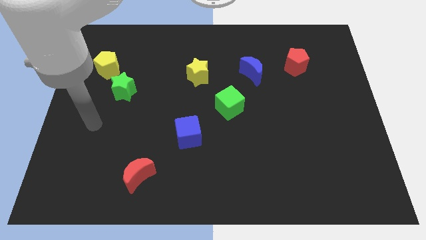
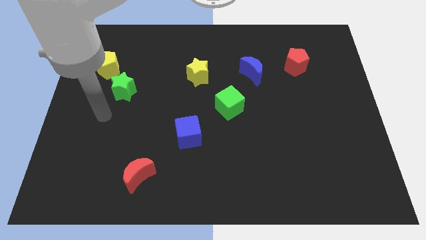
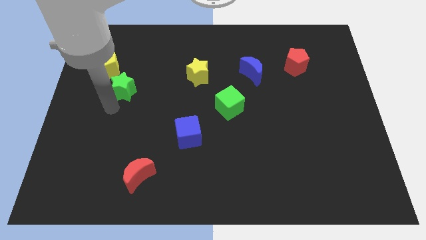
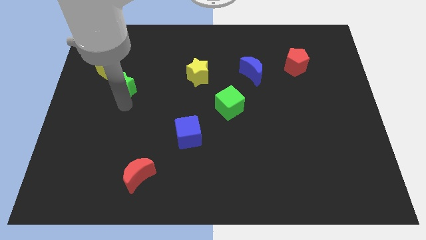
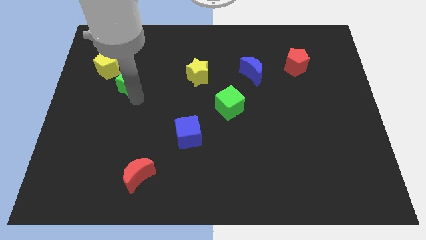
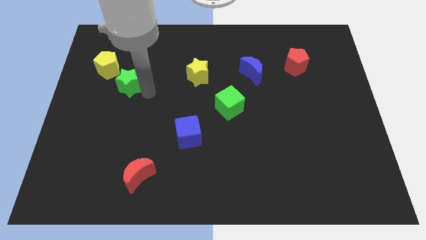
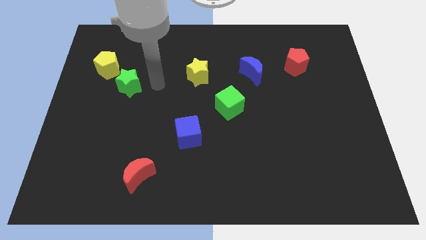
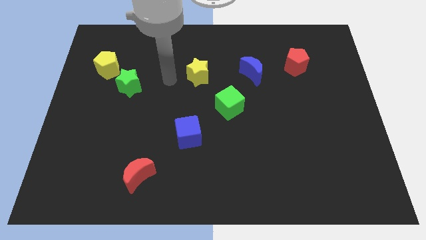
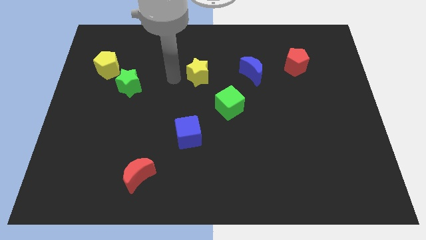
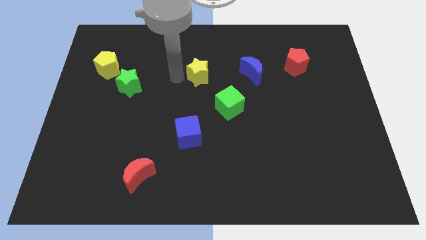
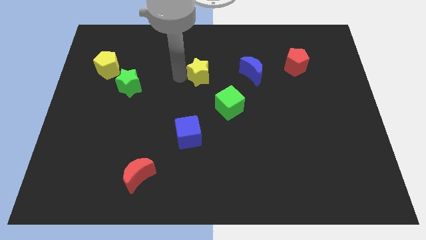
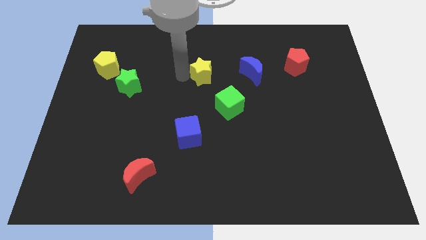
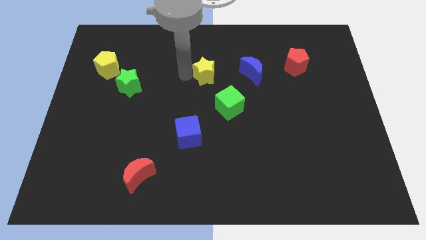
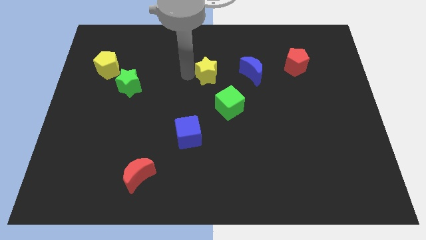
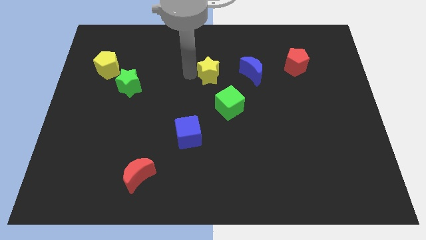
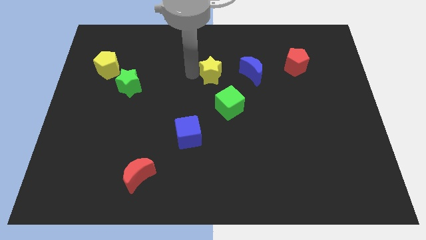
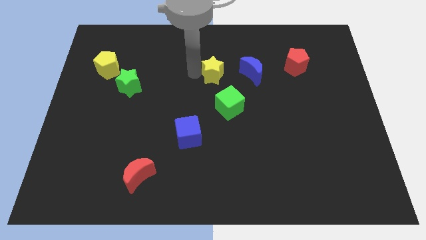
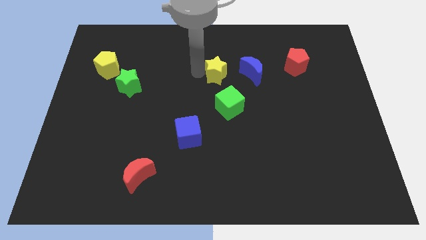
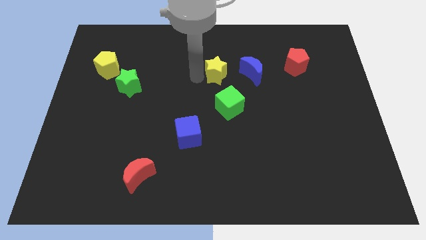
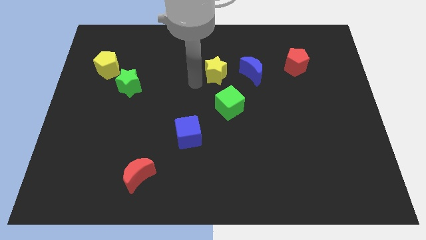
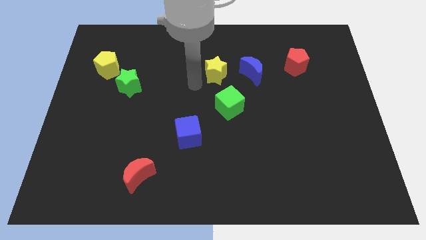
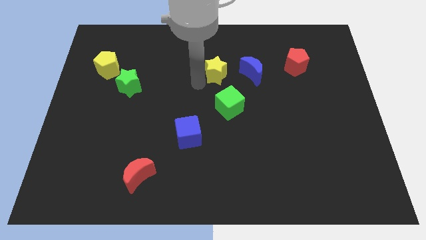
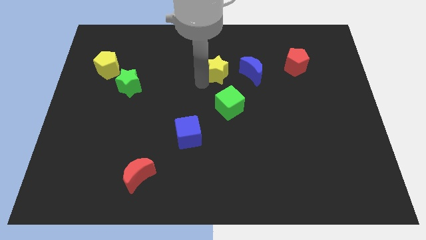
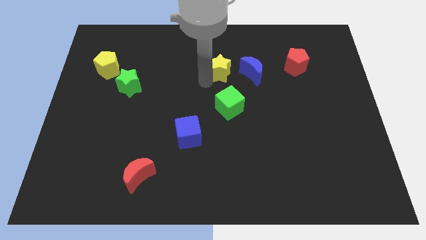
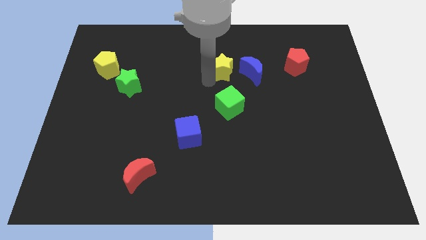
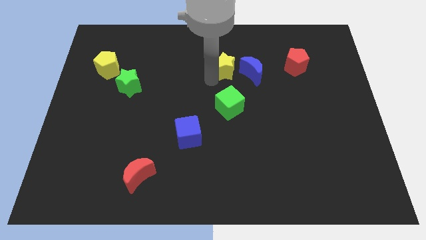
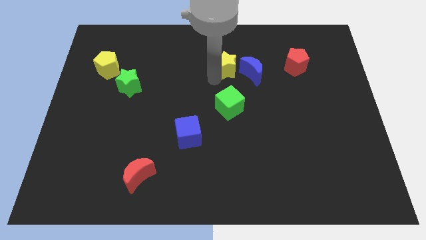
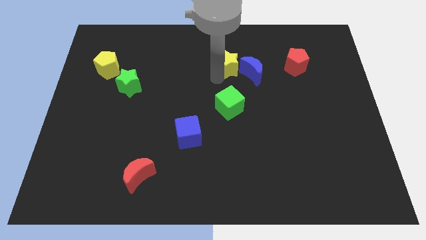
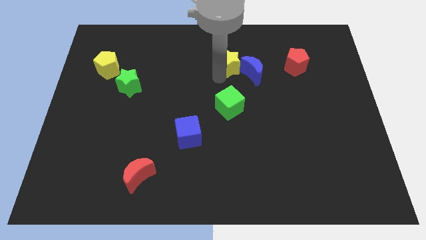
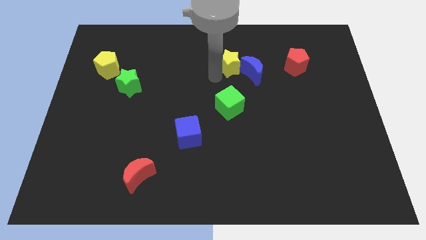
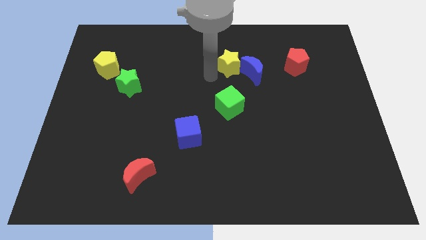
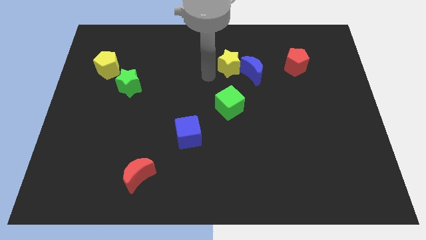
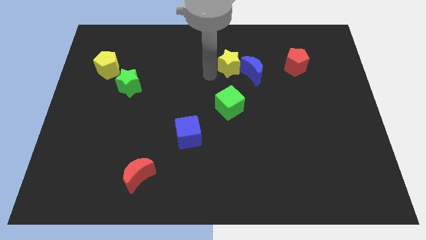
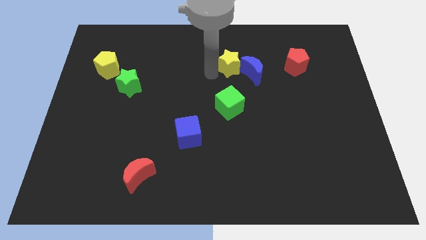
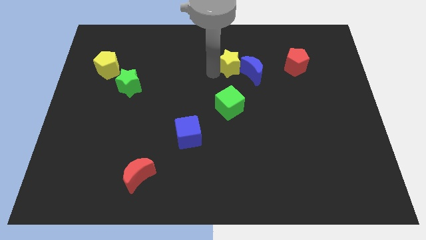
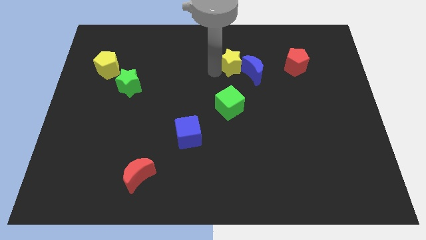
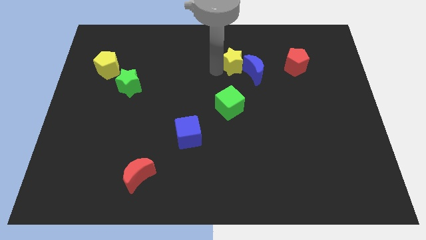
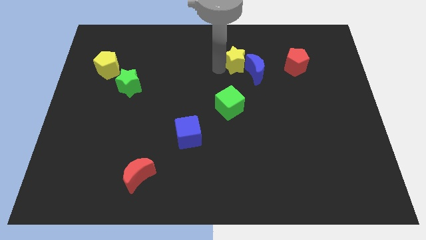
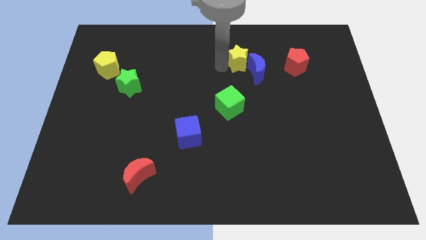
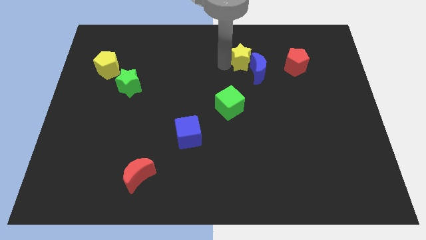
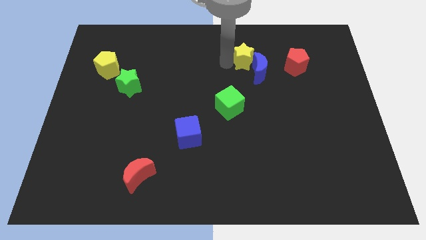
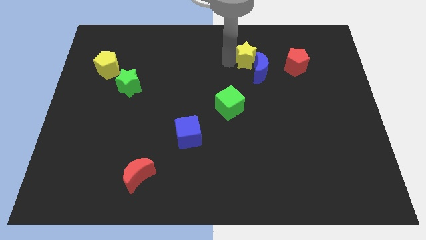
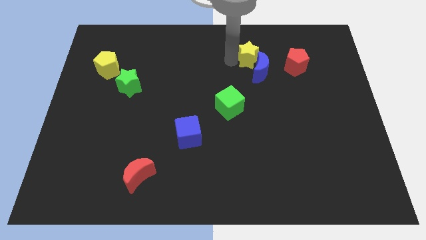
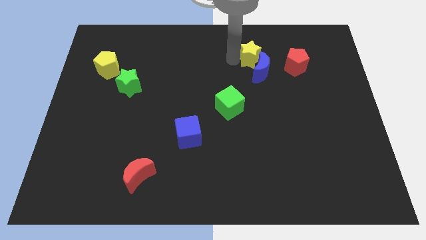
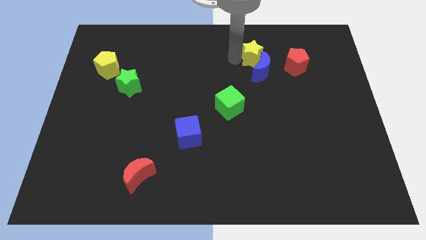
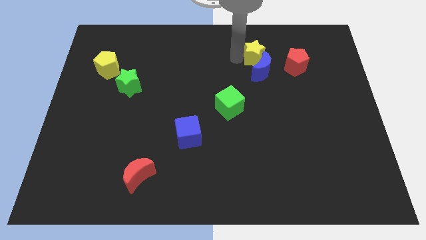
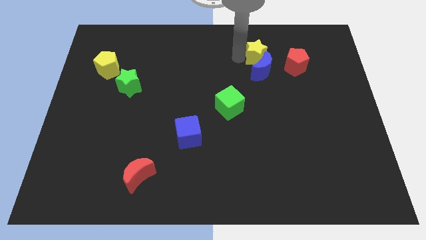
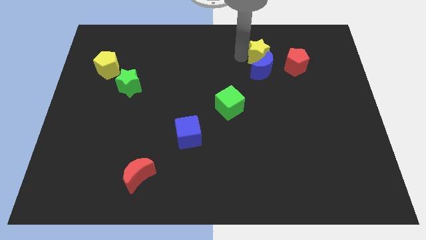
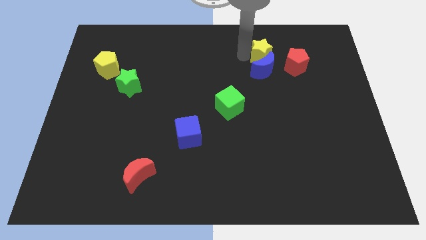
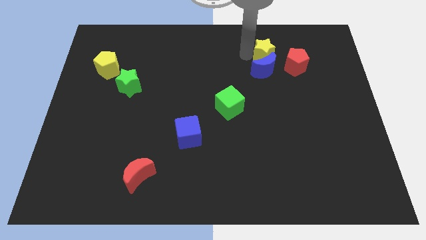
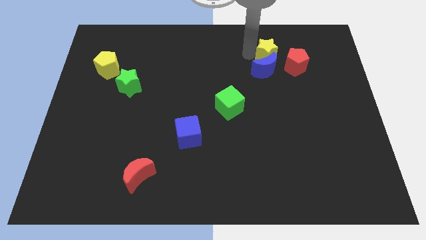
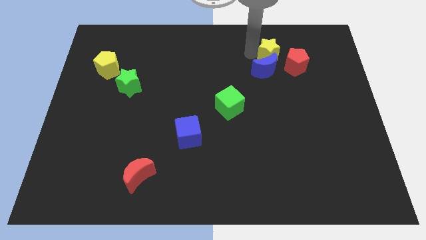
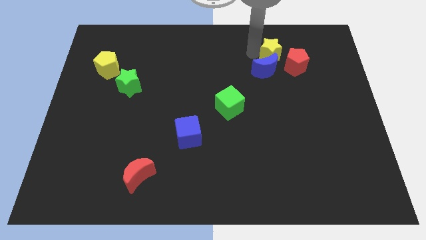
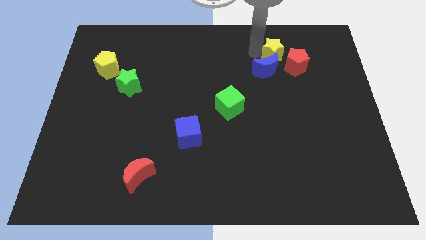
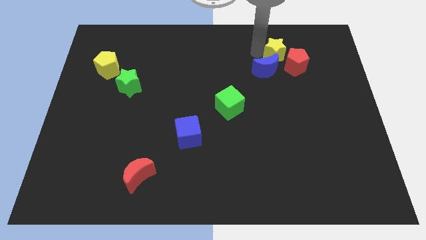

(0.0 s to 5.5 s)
put the yellow star towards the red pentagon

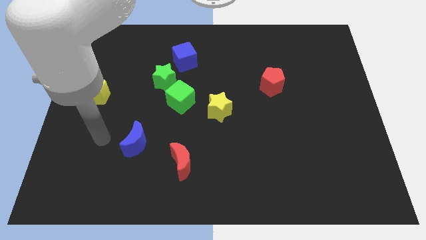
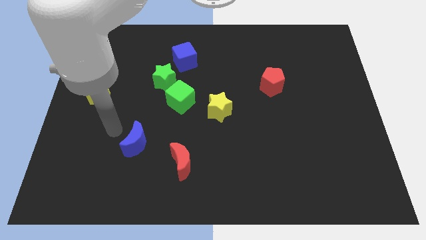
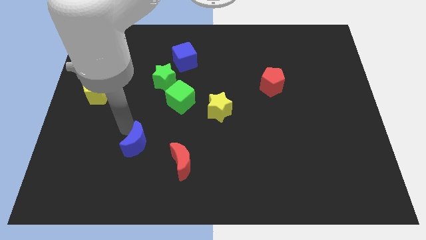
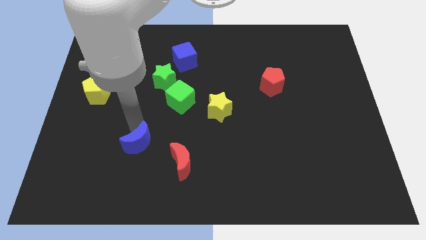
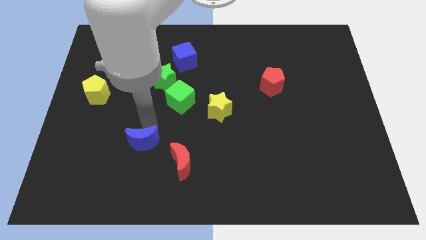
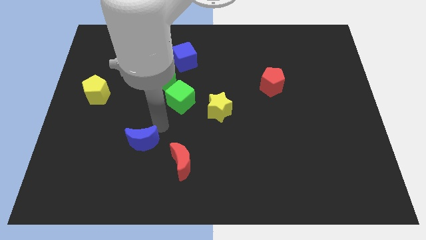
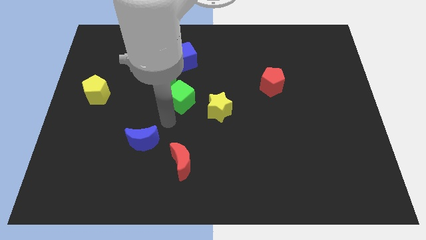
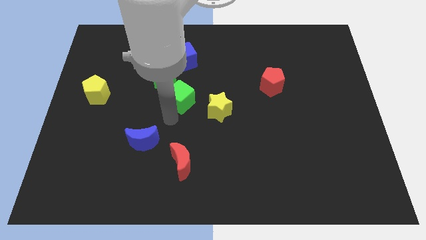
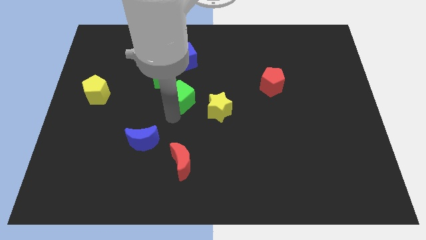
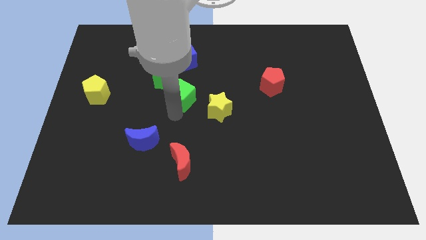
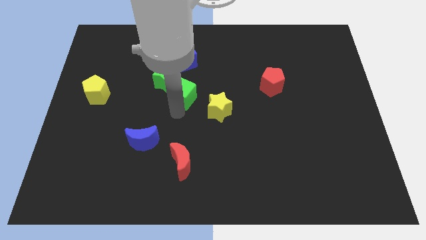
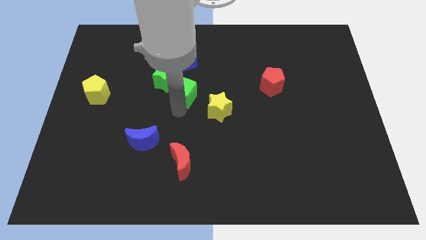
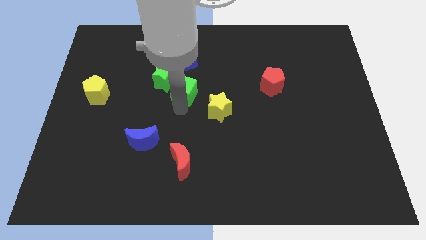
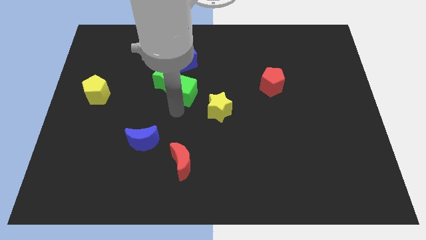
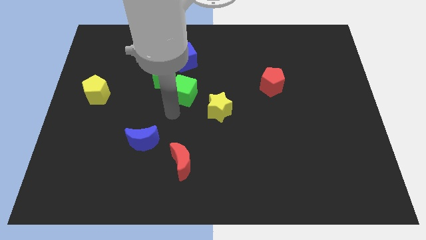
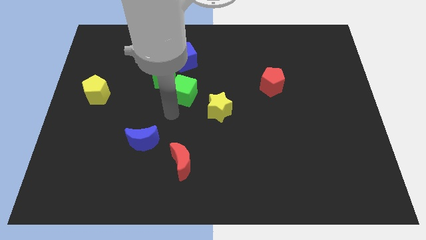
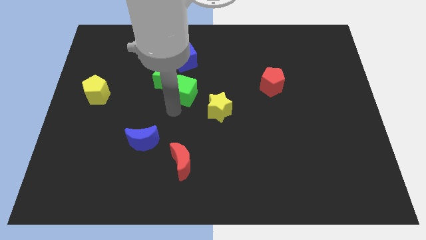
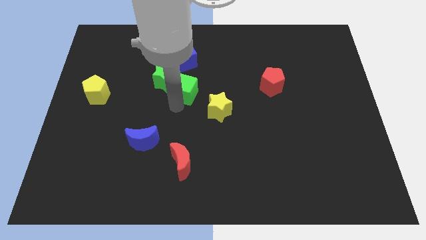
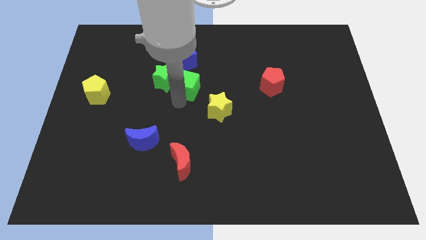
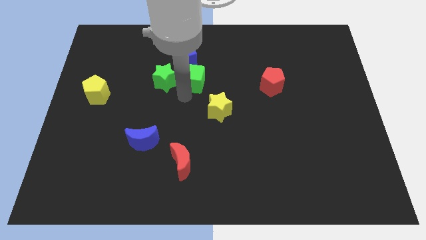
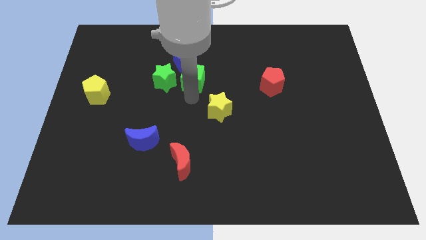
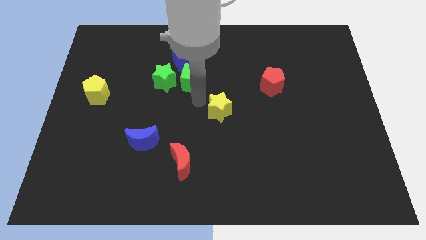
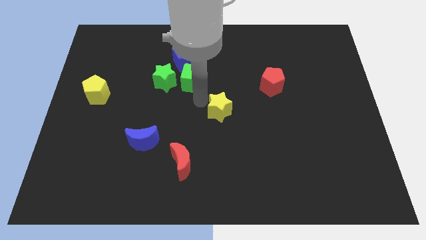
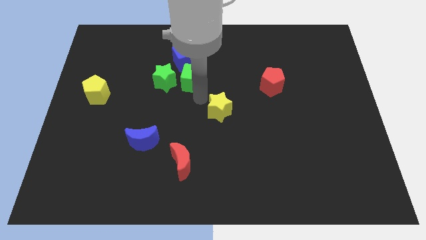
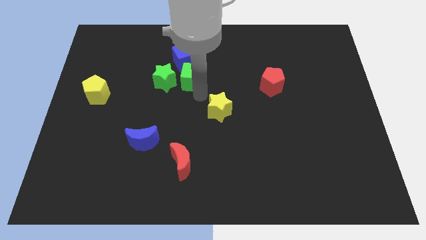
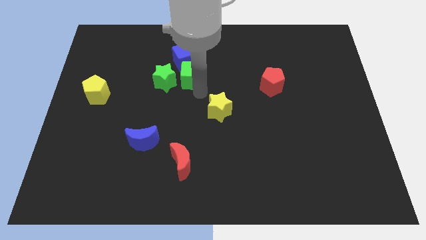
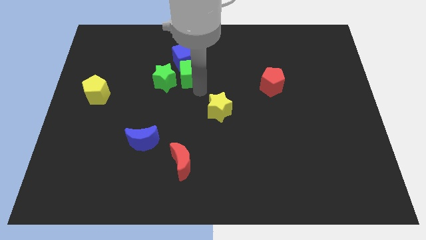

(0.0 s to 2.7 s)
push the green cube towards the blue cube
